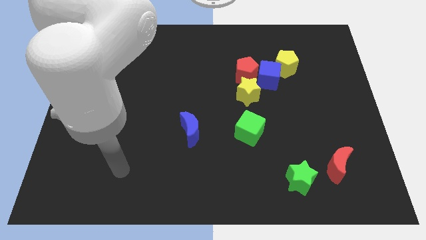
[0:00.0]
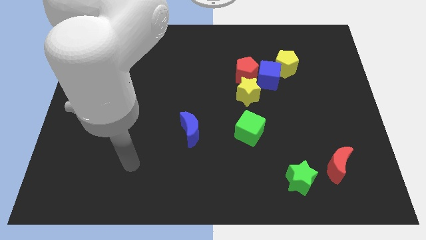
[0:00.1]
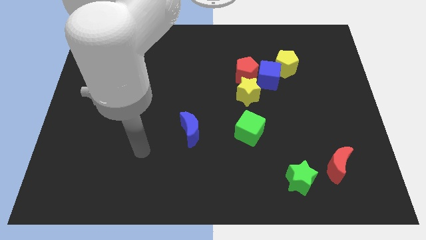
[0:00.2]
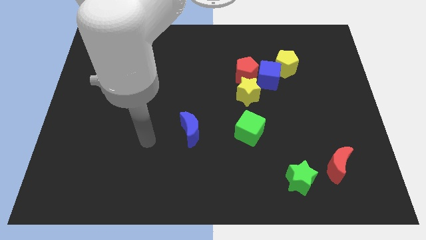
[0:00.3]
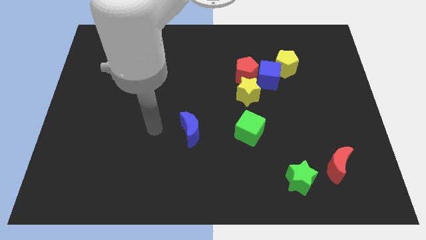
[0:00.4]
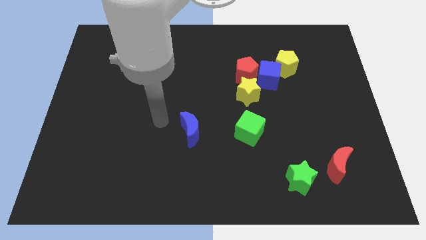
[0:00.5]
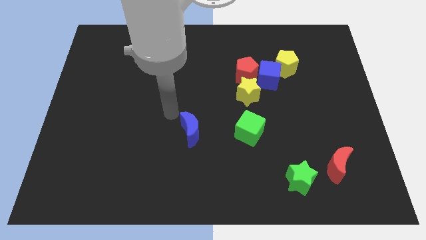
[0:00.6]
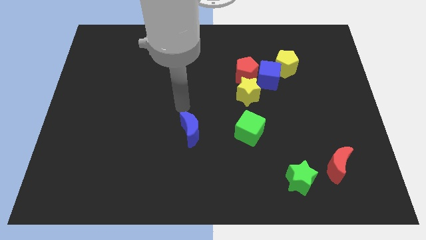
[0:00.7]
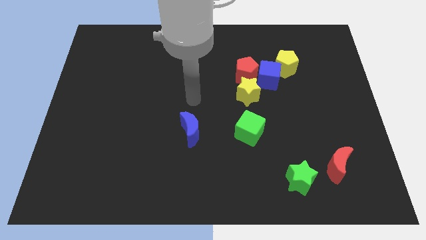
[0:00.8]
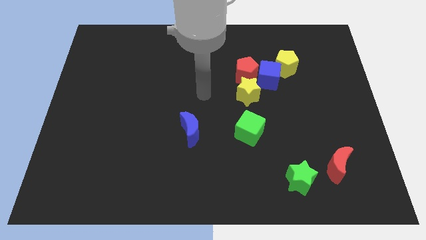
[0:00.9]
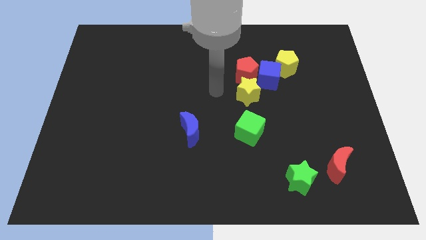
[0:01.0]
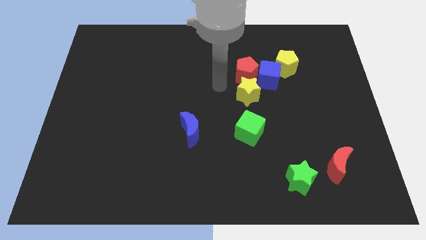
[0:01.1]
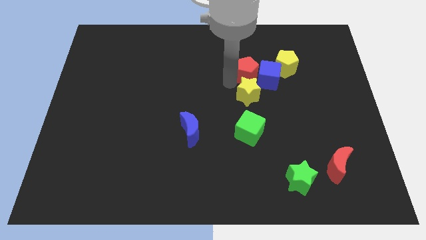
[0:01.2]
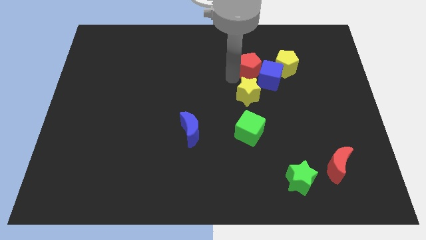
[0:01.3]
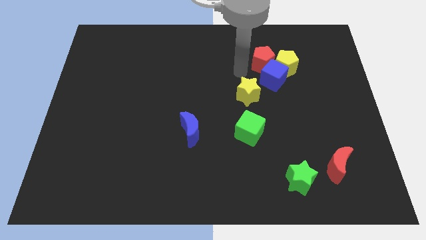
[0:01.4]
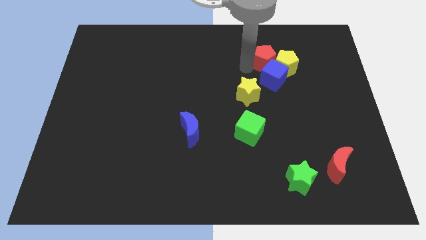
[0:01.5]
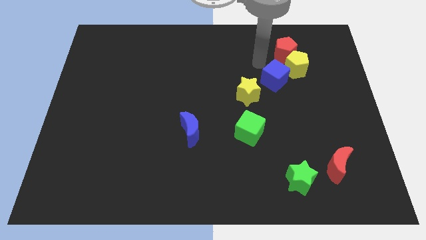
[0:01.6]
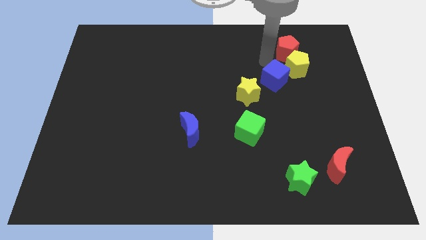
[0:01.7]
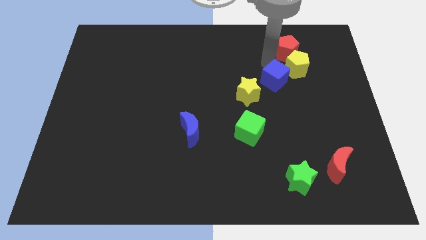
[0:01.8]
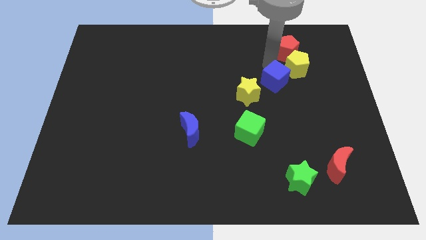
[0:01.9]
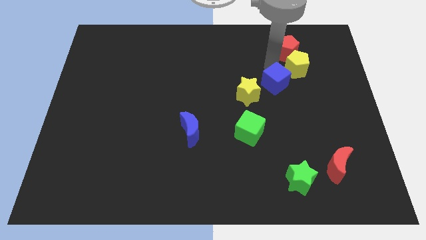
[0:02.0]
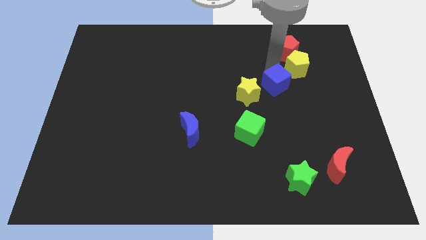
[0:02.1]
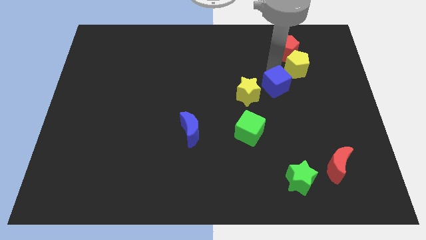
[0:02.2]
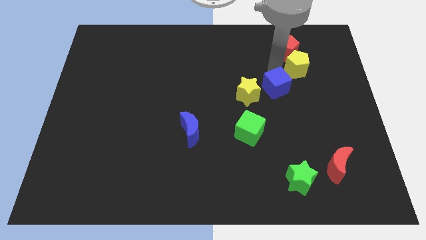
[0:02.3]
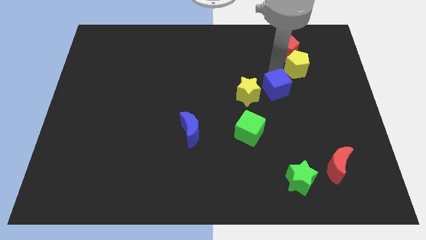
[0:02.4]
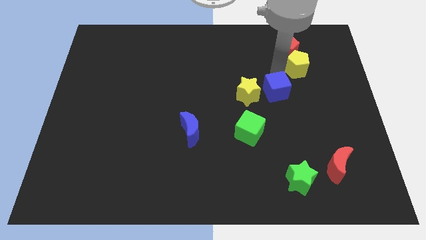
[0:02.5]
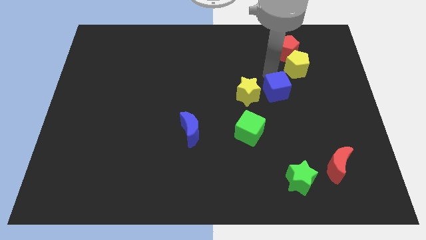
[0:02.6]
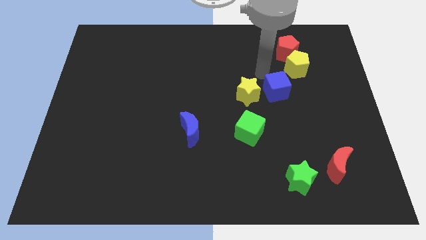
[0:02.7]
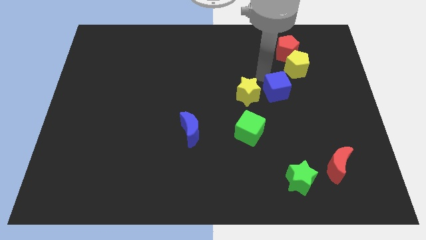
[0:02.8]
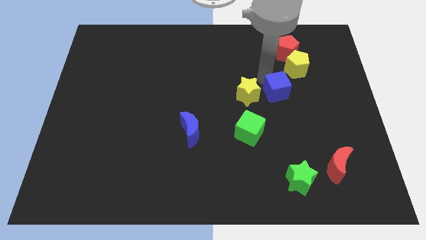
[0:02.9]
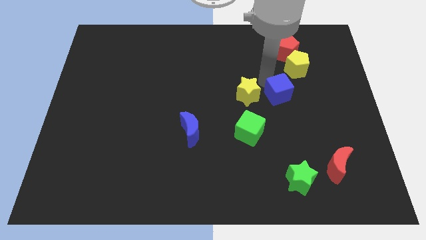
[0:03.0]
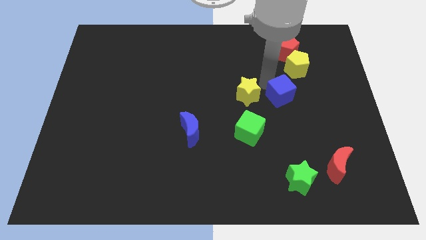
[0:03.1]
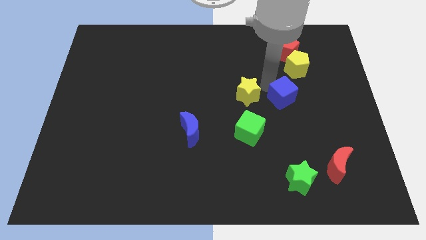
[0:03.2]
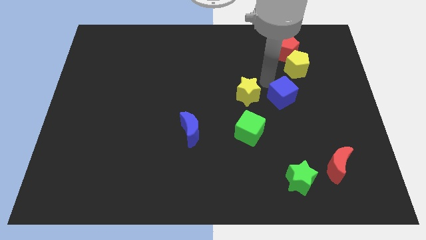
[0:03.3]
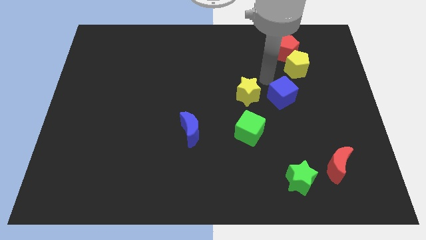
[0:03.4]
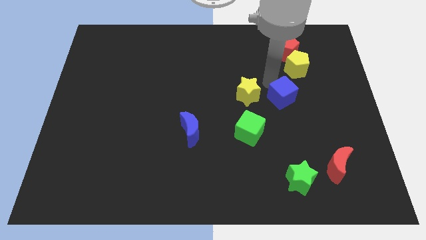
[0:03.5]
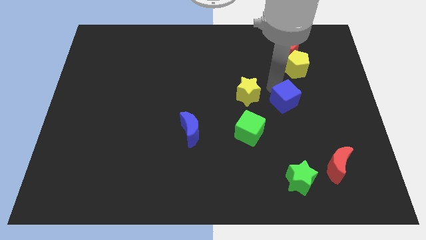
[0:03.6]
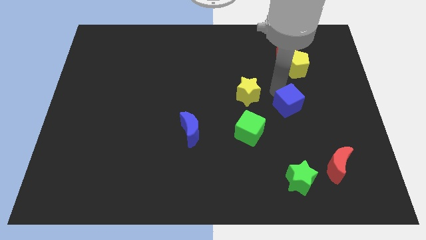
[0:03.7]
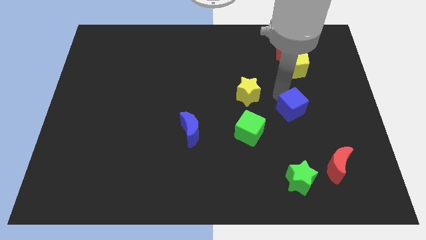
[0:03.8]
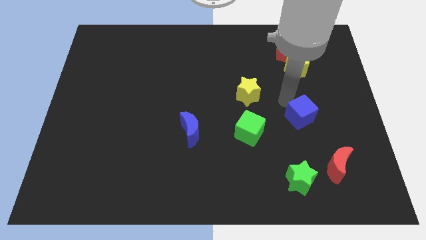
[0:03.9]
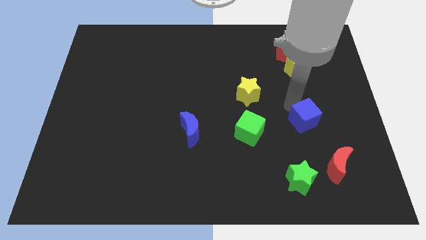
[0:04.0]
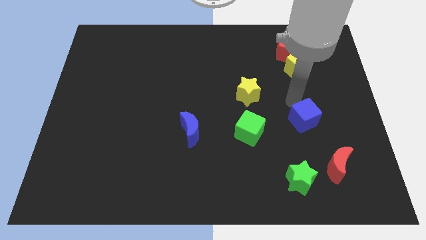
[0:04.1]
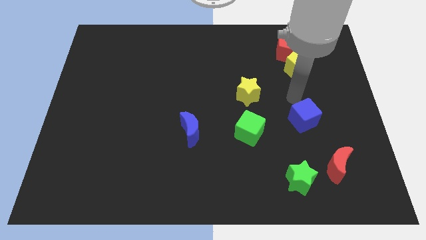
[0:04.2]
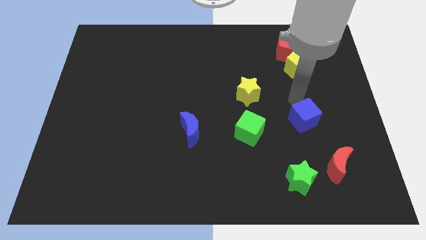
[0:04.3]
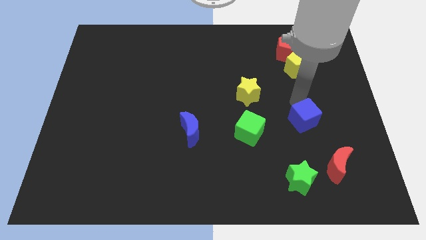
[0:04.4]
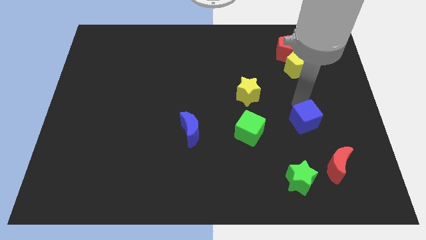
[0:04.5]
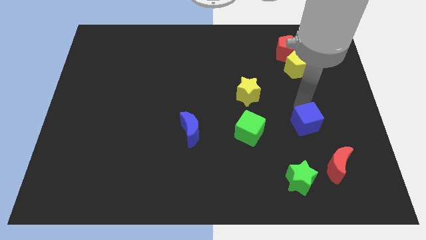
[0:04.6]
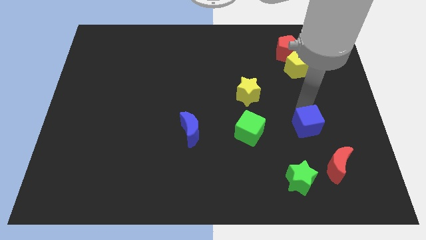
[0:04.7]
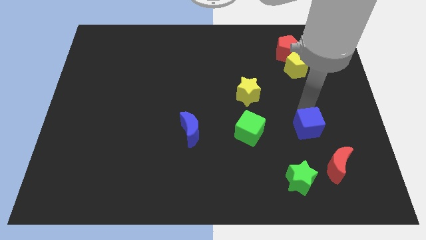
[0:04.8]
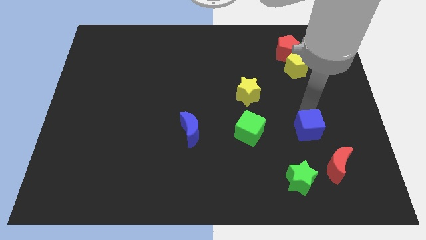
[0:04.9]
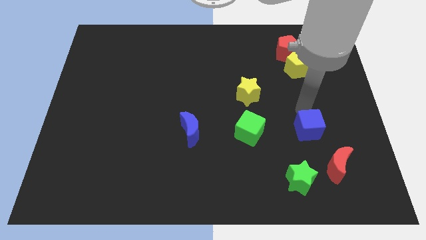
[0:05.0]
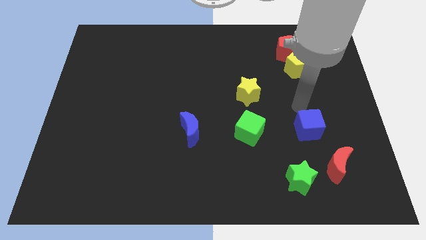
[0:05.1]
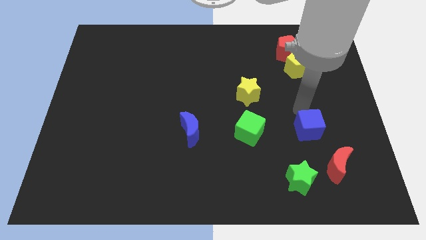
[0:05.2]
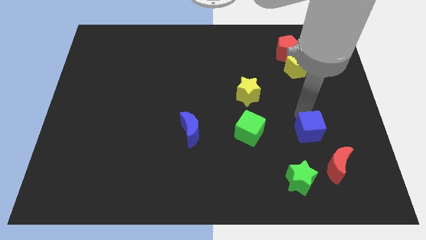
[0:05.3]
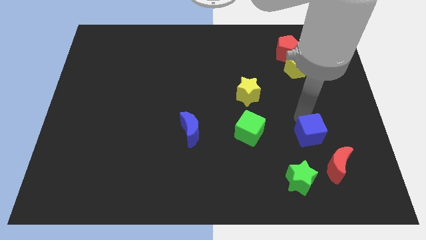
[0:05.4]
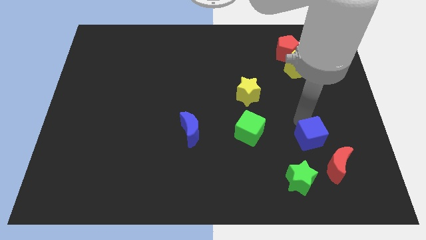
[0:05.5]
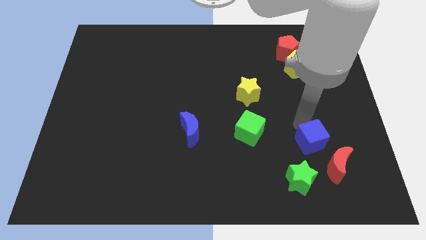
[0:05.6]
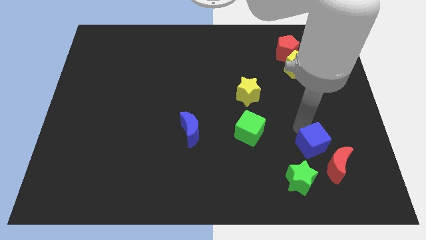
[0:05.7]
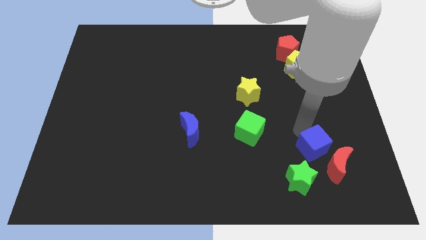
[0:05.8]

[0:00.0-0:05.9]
slide the blue cube close to the red moon

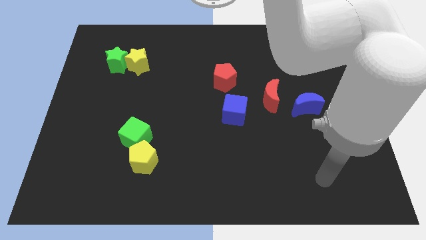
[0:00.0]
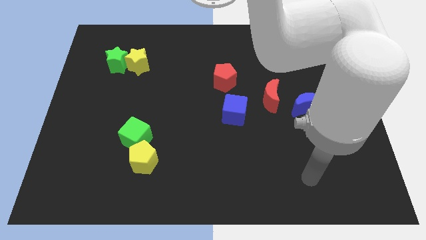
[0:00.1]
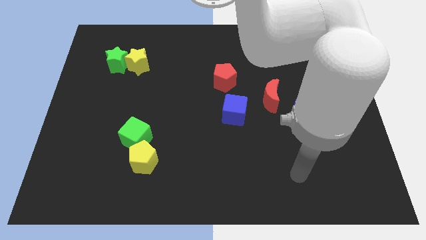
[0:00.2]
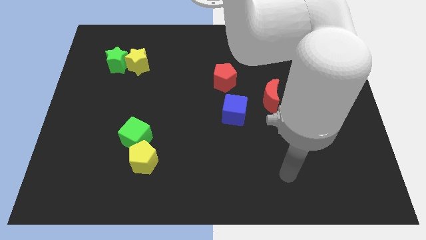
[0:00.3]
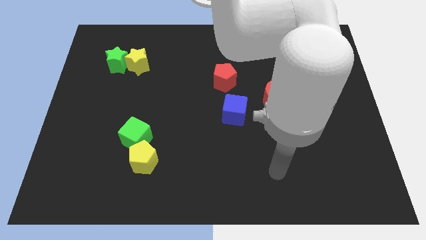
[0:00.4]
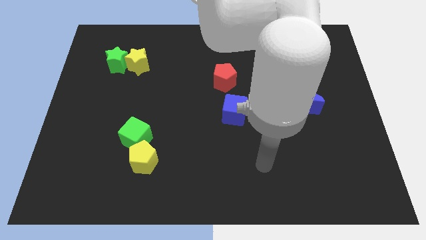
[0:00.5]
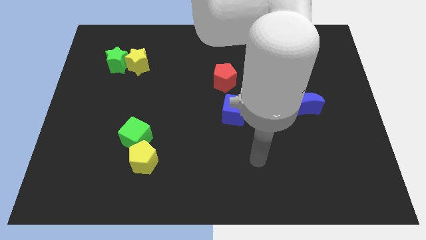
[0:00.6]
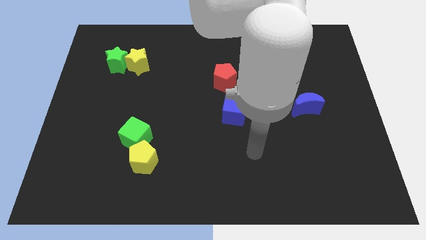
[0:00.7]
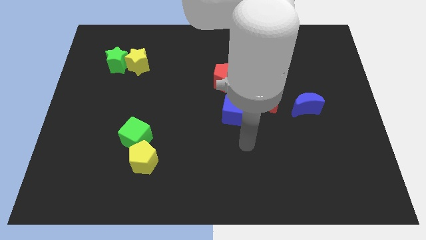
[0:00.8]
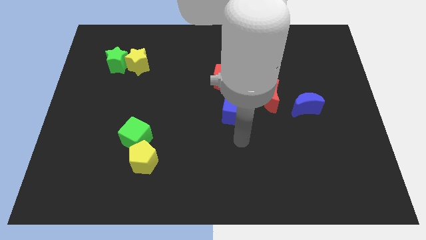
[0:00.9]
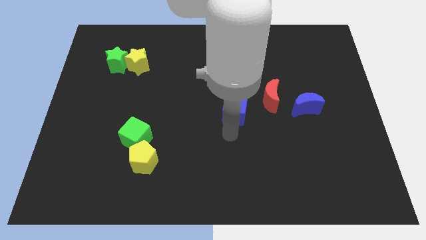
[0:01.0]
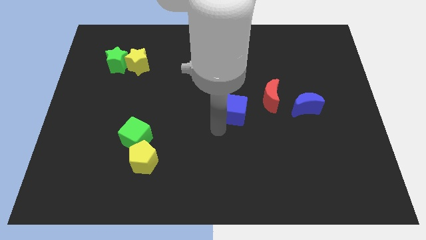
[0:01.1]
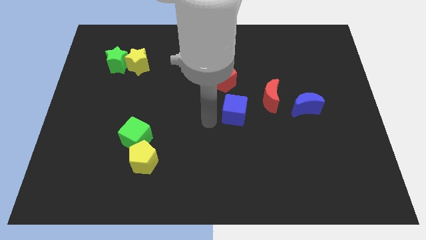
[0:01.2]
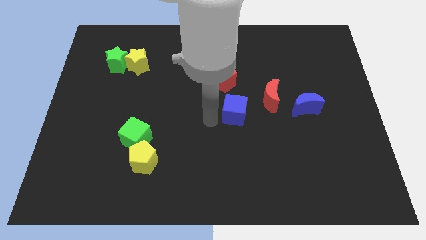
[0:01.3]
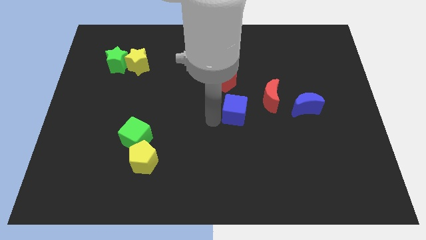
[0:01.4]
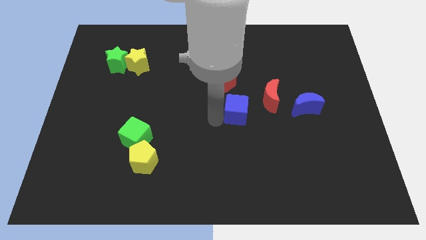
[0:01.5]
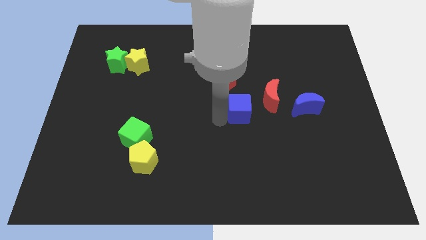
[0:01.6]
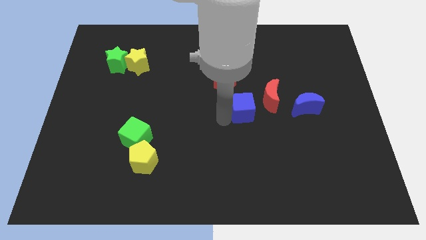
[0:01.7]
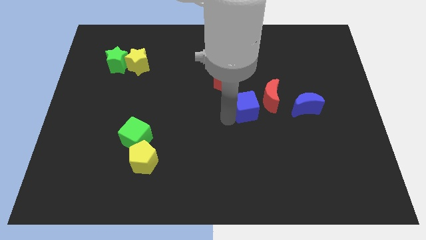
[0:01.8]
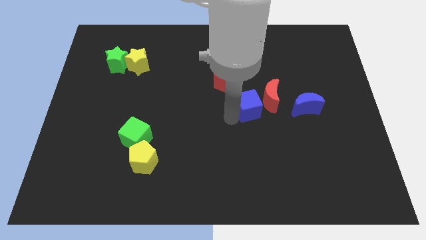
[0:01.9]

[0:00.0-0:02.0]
slide the blue cube to the red moon
